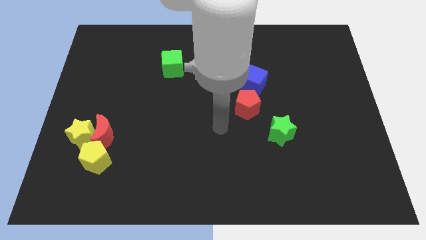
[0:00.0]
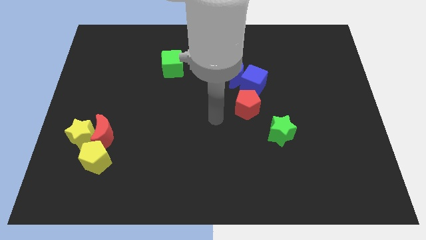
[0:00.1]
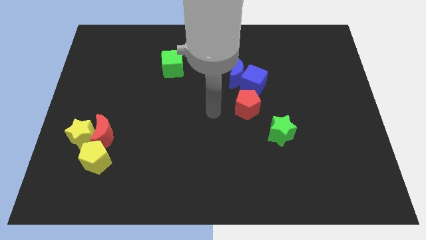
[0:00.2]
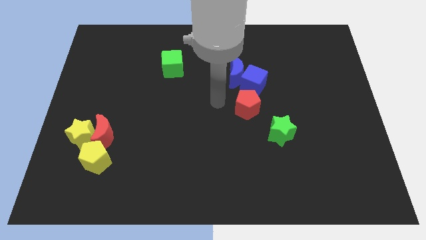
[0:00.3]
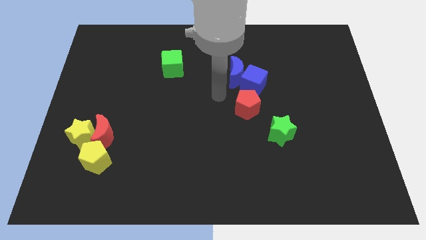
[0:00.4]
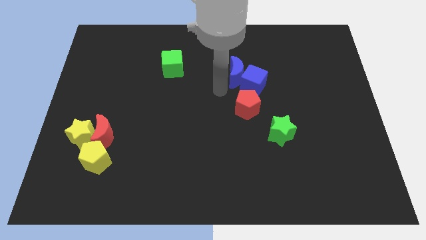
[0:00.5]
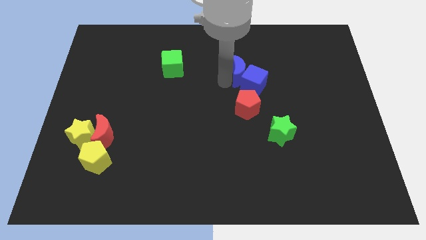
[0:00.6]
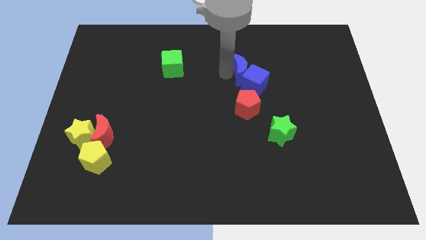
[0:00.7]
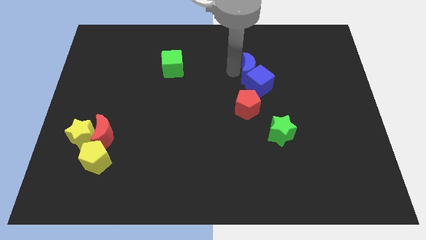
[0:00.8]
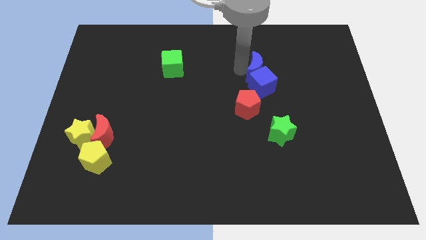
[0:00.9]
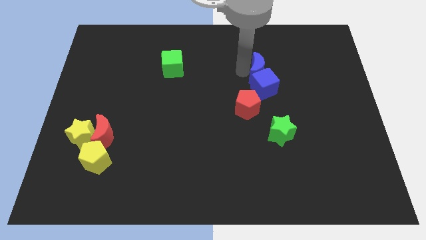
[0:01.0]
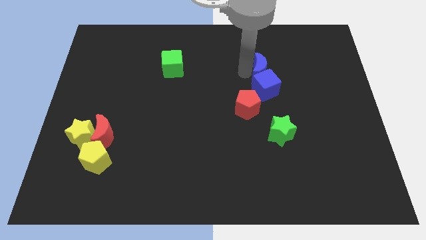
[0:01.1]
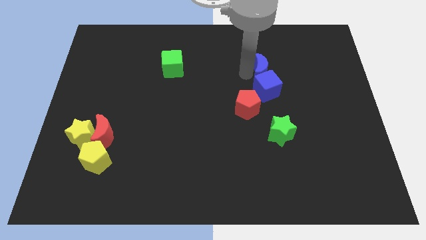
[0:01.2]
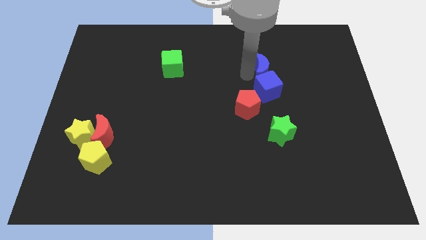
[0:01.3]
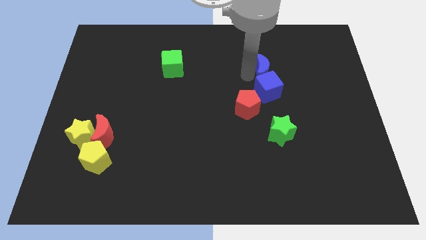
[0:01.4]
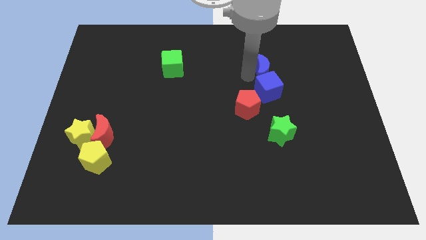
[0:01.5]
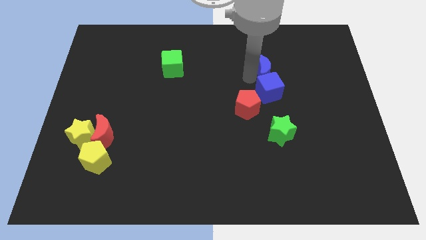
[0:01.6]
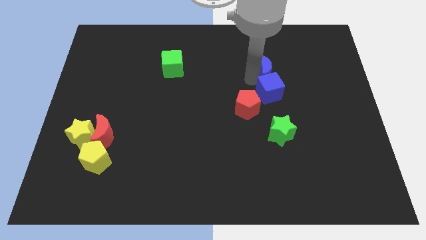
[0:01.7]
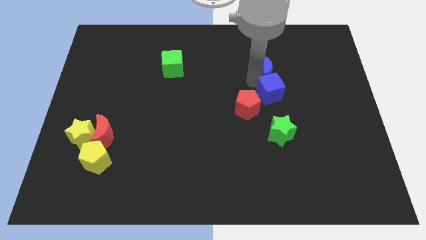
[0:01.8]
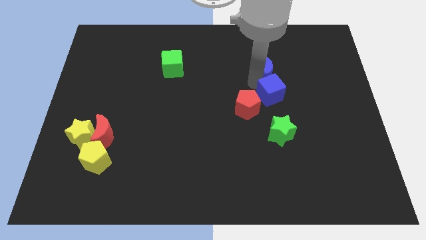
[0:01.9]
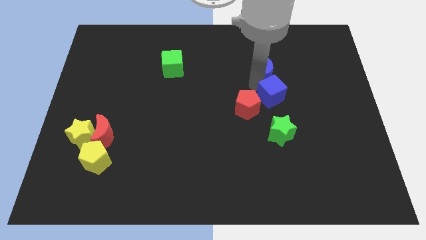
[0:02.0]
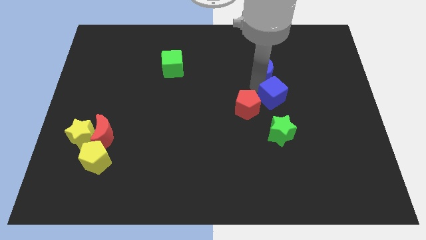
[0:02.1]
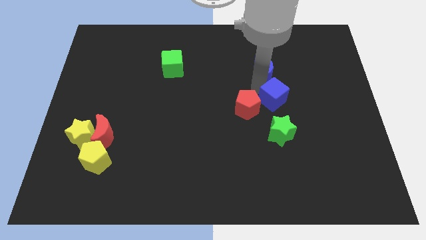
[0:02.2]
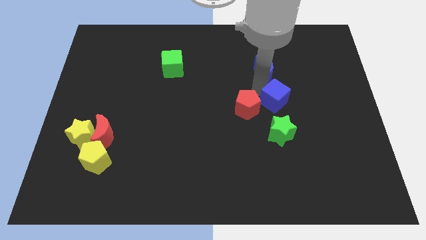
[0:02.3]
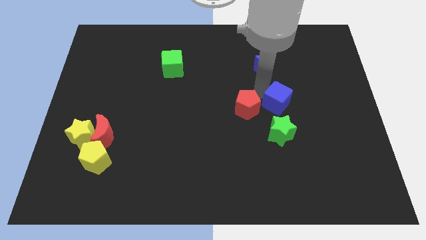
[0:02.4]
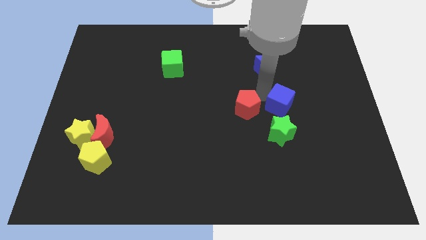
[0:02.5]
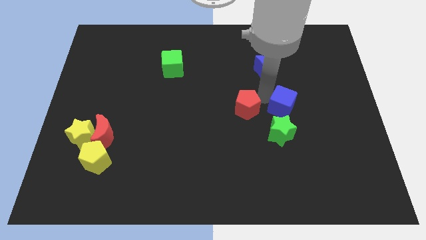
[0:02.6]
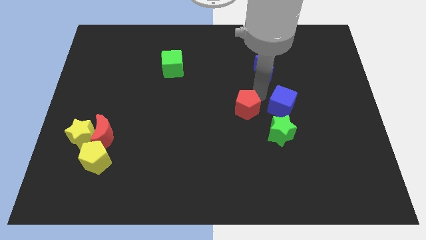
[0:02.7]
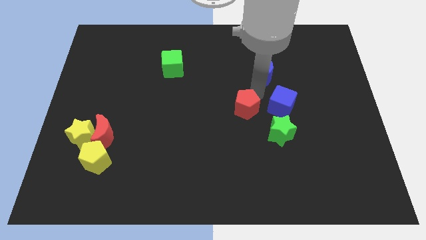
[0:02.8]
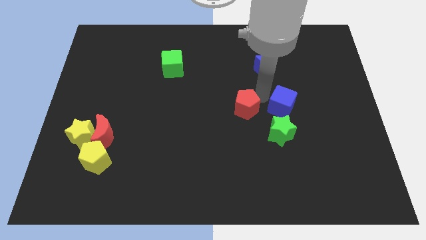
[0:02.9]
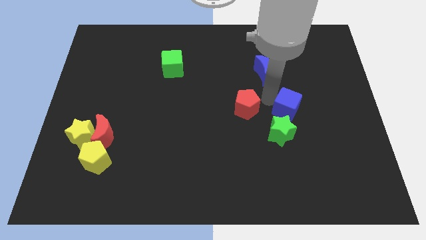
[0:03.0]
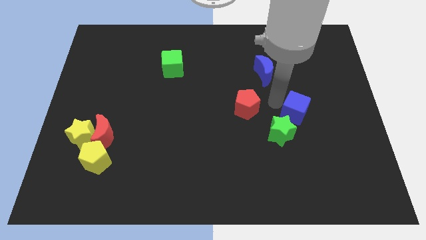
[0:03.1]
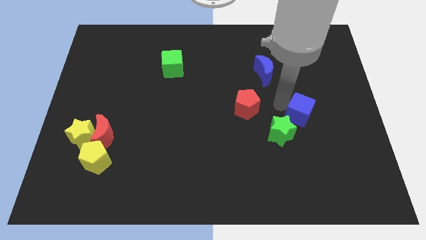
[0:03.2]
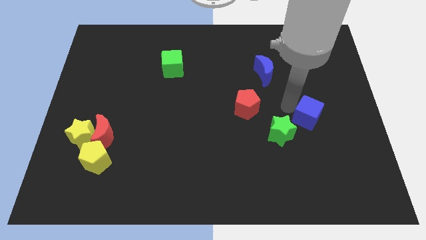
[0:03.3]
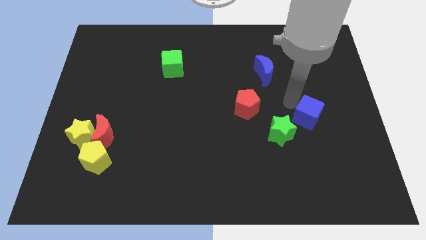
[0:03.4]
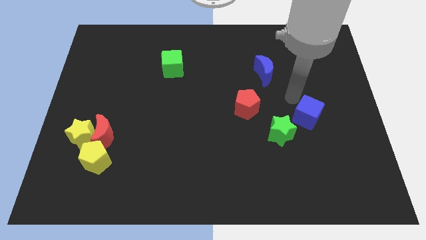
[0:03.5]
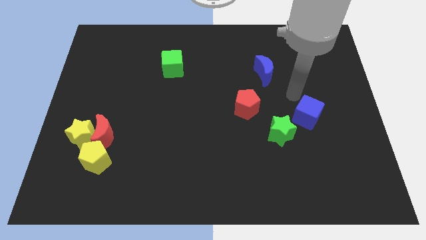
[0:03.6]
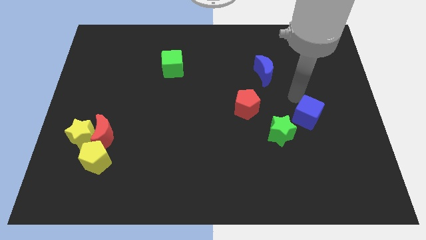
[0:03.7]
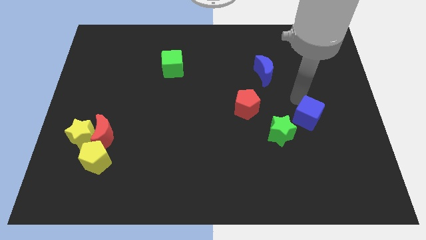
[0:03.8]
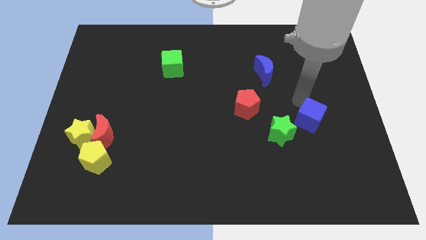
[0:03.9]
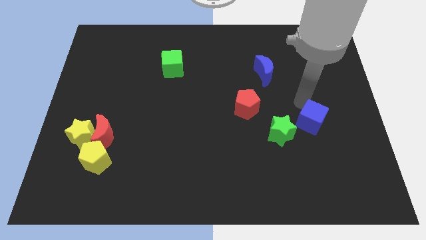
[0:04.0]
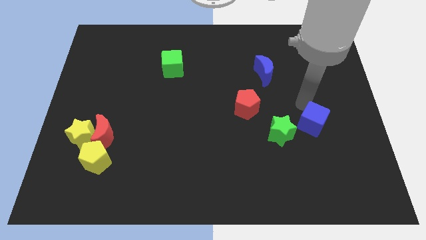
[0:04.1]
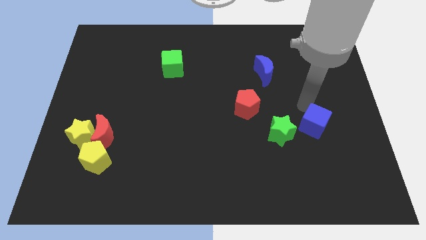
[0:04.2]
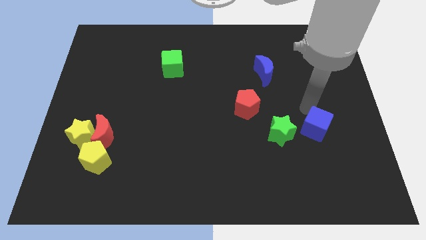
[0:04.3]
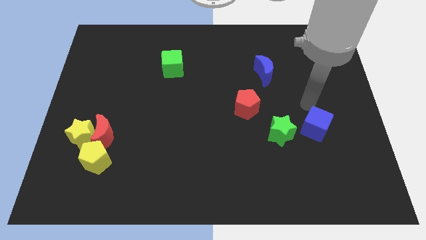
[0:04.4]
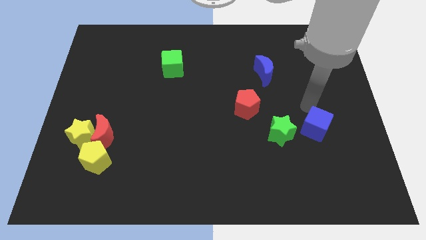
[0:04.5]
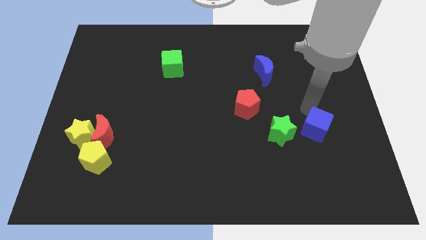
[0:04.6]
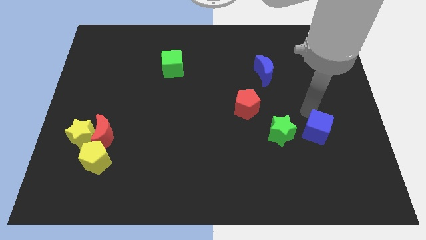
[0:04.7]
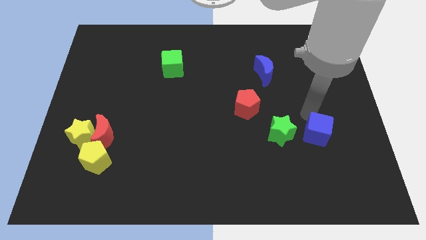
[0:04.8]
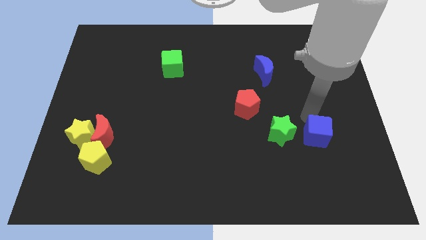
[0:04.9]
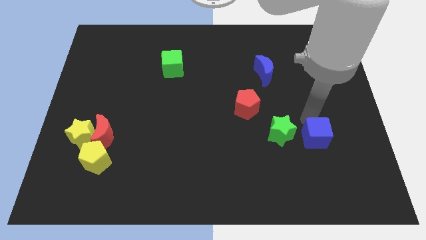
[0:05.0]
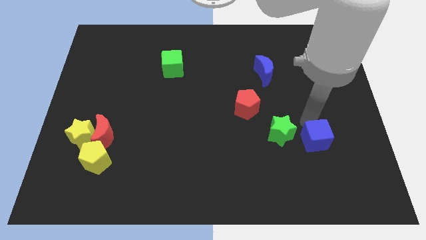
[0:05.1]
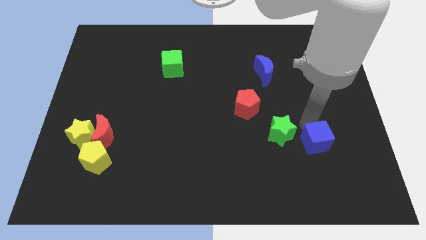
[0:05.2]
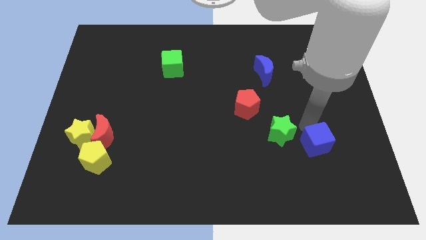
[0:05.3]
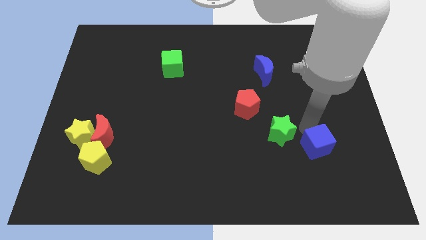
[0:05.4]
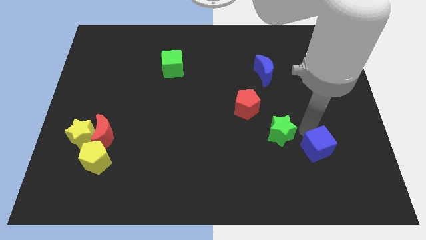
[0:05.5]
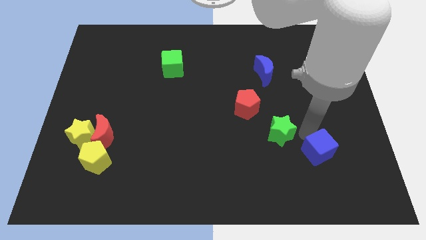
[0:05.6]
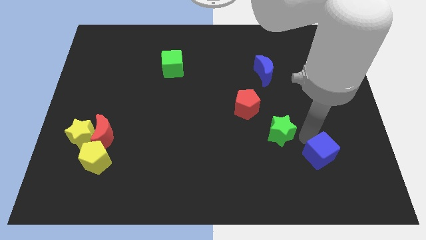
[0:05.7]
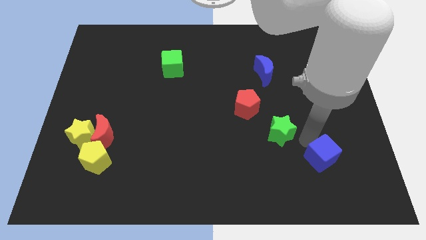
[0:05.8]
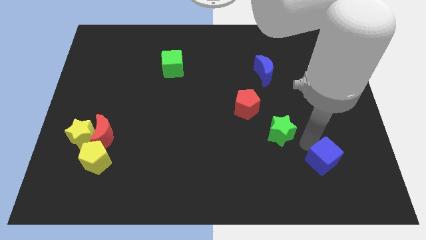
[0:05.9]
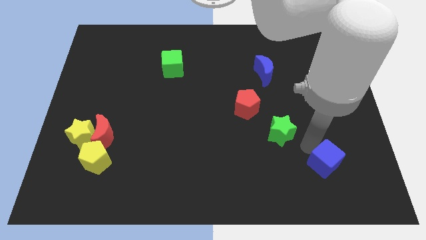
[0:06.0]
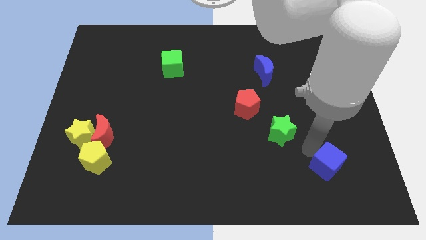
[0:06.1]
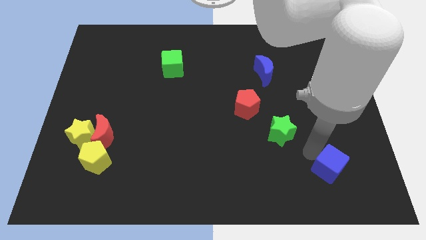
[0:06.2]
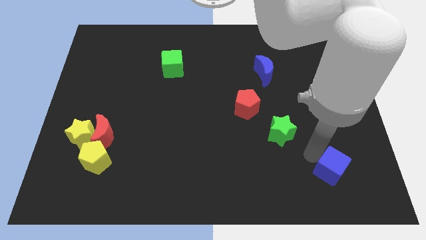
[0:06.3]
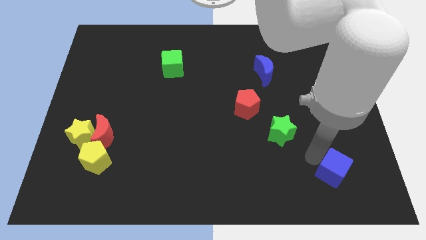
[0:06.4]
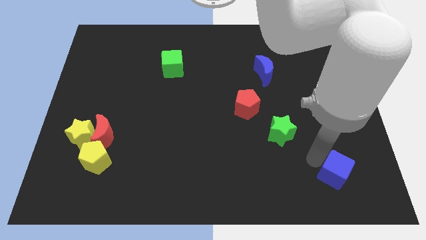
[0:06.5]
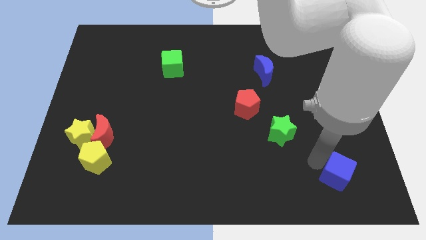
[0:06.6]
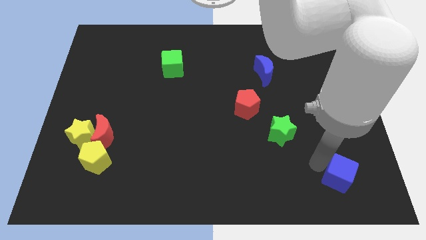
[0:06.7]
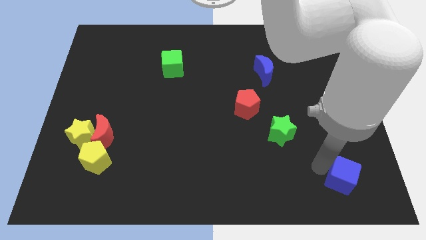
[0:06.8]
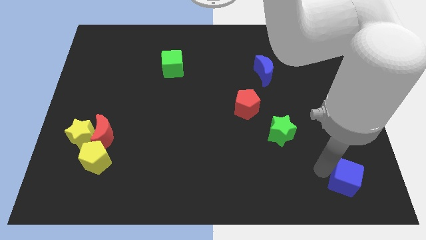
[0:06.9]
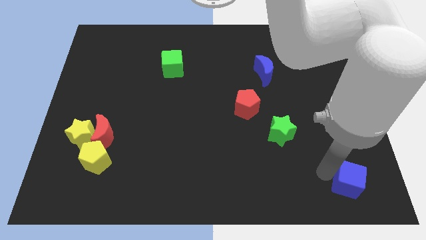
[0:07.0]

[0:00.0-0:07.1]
put the blue cube to the bottom right corner

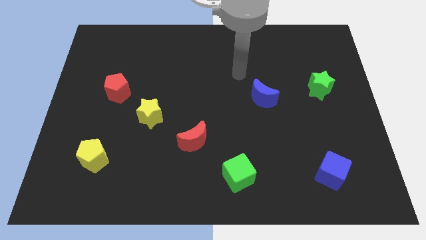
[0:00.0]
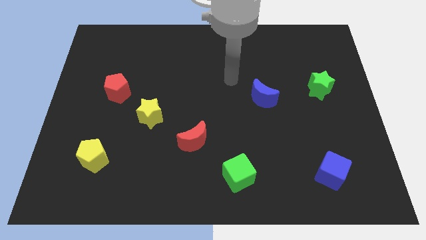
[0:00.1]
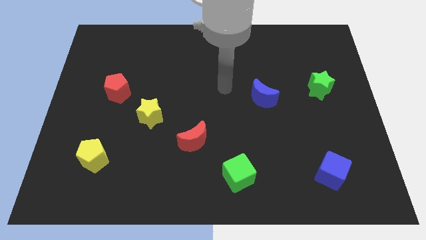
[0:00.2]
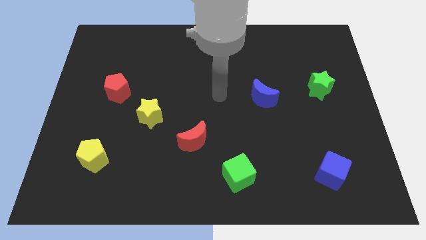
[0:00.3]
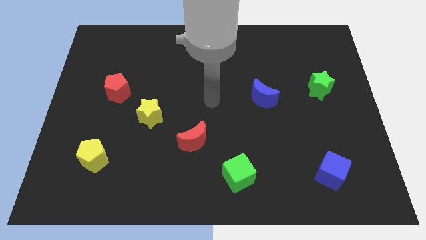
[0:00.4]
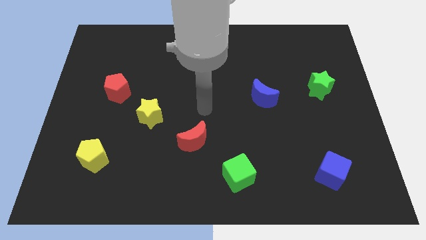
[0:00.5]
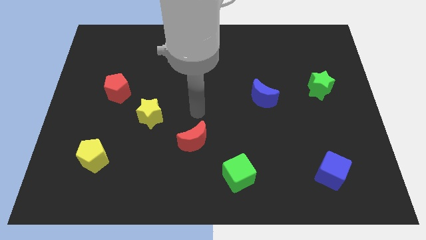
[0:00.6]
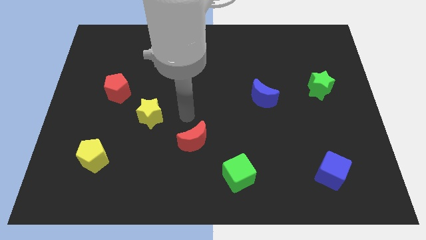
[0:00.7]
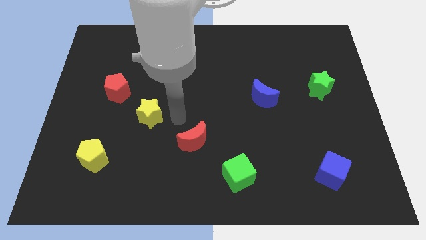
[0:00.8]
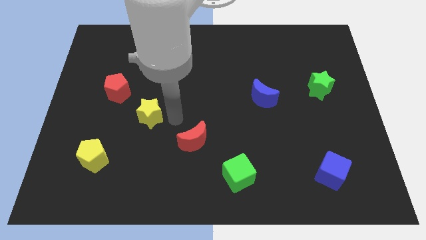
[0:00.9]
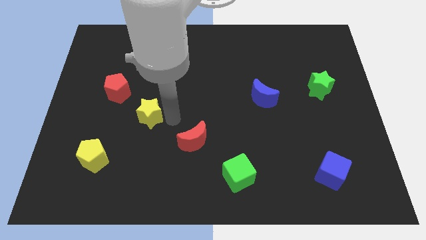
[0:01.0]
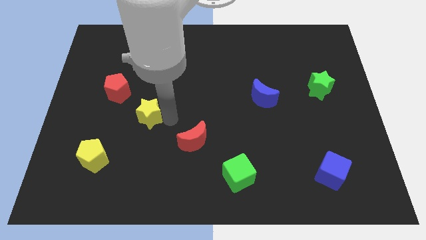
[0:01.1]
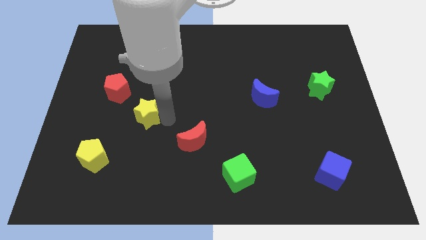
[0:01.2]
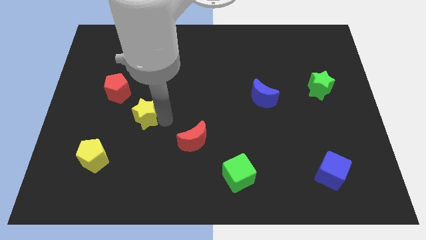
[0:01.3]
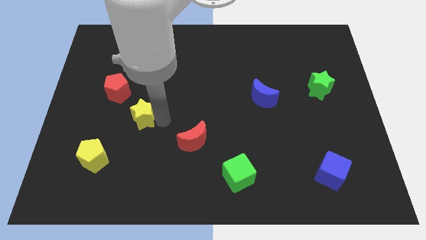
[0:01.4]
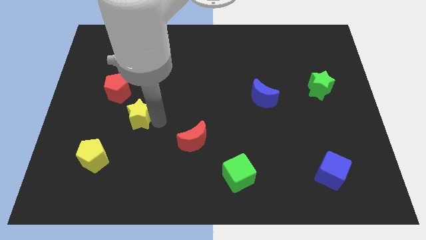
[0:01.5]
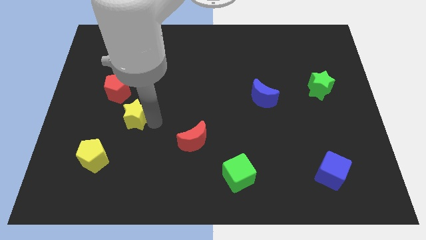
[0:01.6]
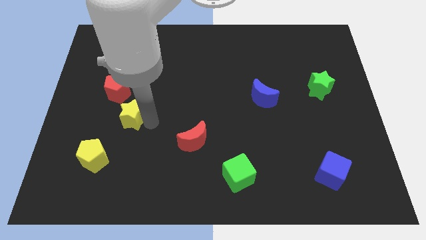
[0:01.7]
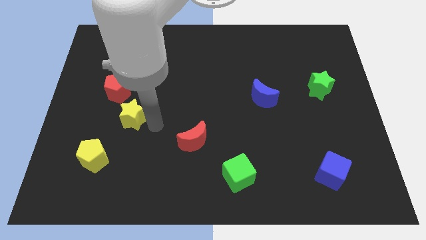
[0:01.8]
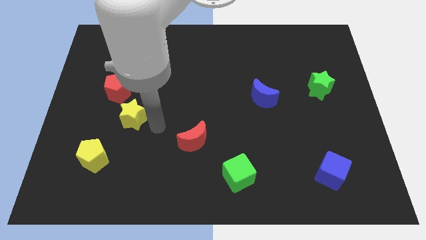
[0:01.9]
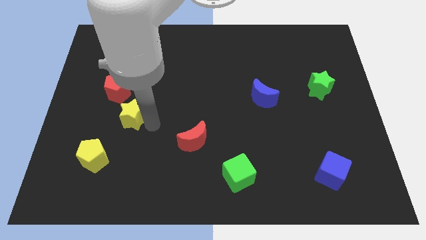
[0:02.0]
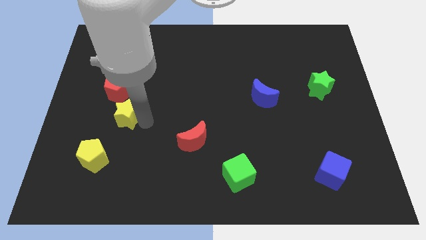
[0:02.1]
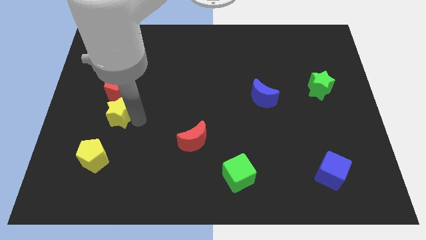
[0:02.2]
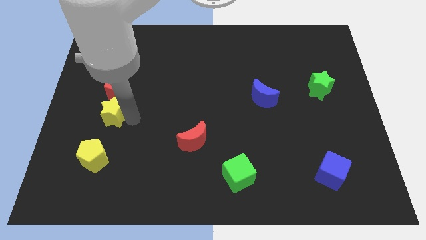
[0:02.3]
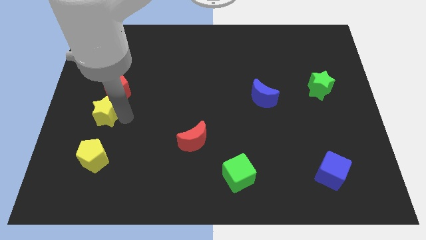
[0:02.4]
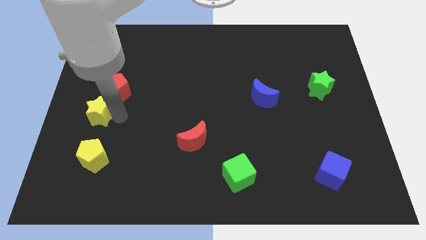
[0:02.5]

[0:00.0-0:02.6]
slide the yellow star to the center left
